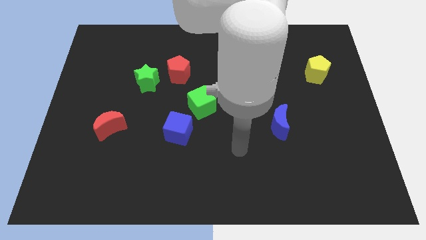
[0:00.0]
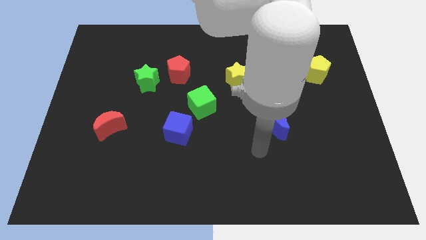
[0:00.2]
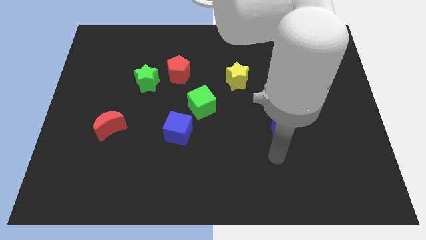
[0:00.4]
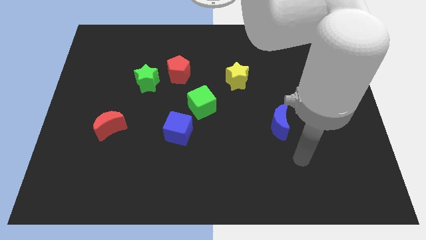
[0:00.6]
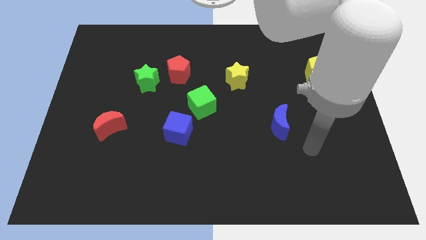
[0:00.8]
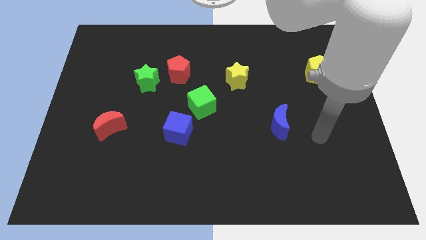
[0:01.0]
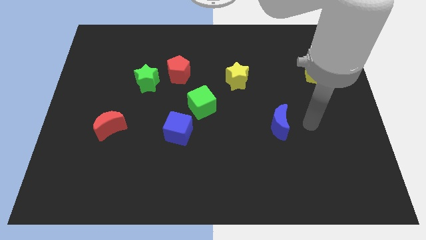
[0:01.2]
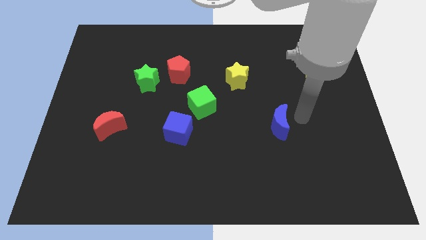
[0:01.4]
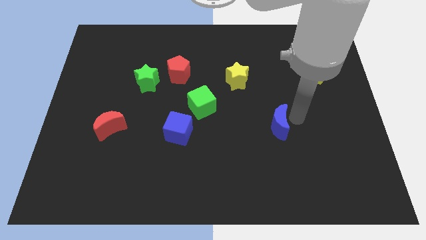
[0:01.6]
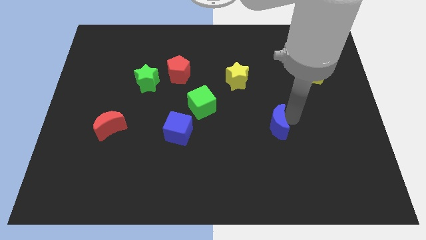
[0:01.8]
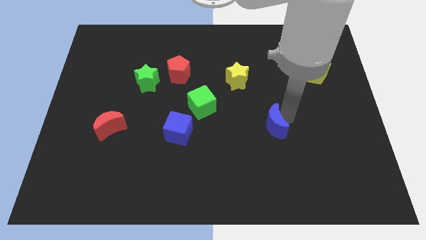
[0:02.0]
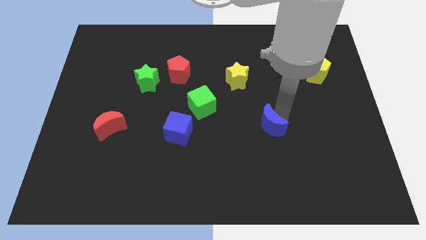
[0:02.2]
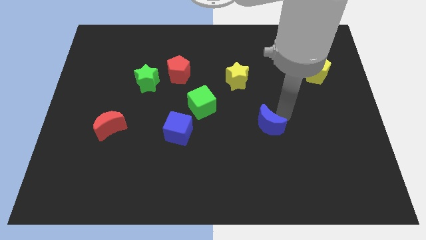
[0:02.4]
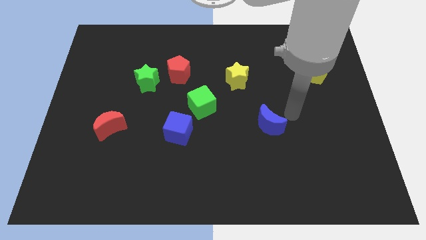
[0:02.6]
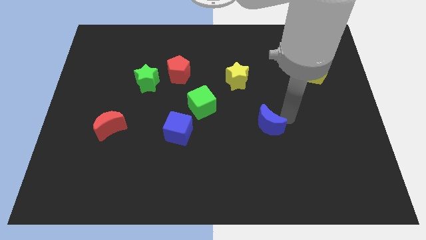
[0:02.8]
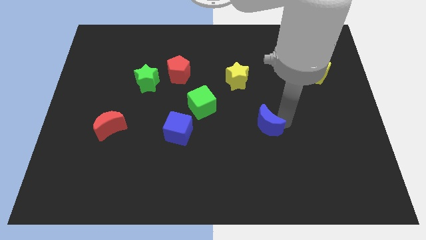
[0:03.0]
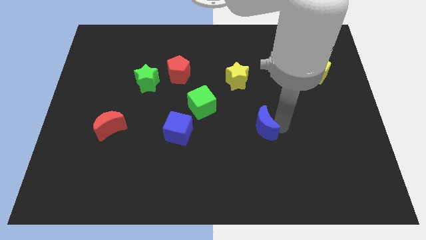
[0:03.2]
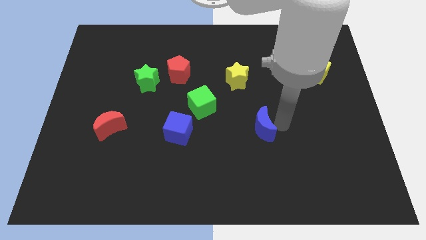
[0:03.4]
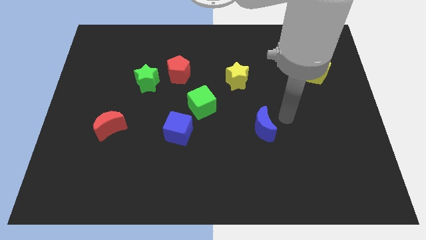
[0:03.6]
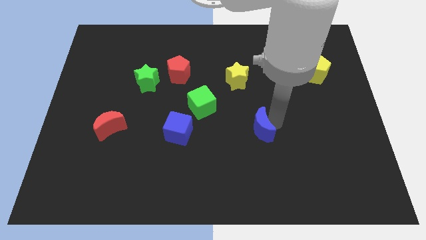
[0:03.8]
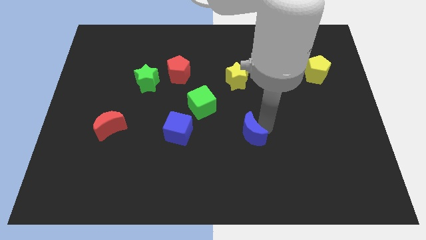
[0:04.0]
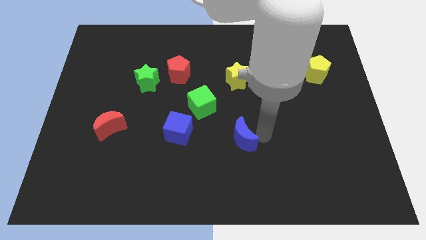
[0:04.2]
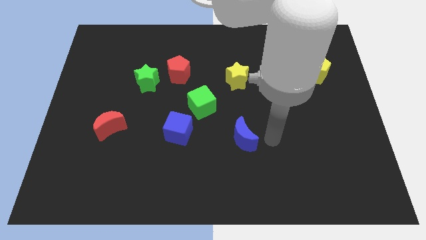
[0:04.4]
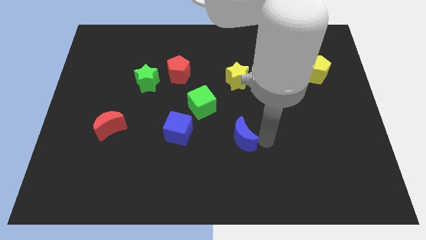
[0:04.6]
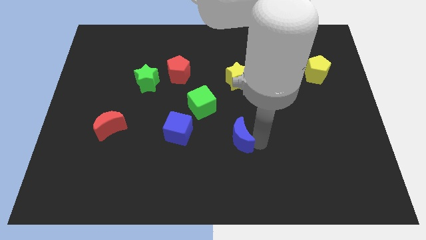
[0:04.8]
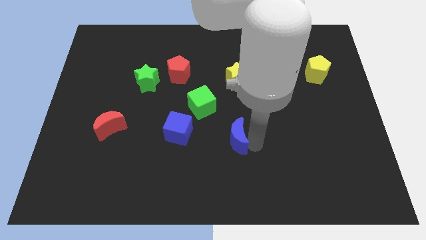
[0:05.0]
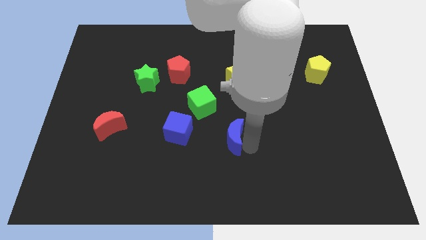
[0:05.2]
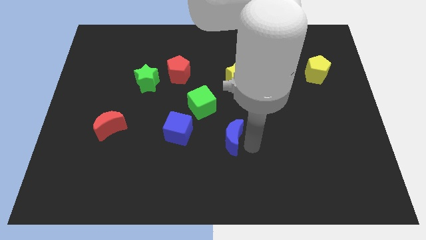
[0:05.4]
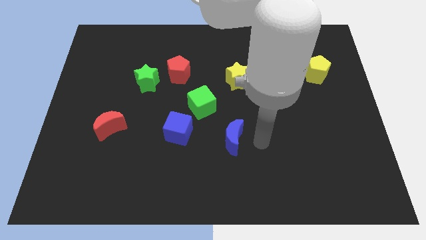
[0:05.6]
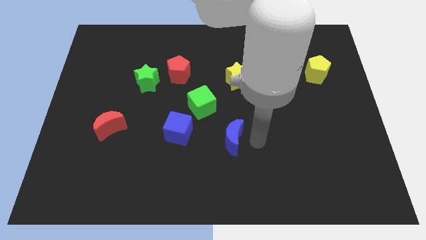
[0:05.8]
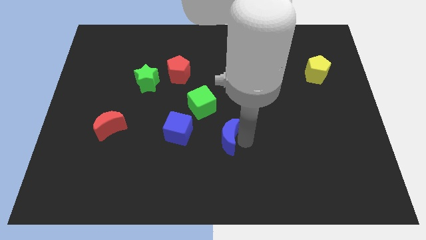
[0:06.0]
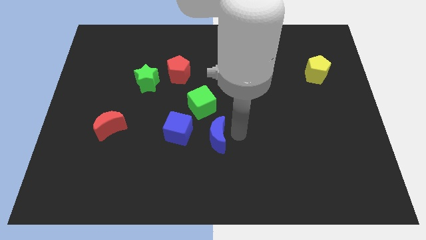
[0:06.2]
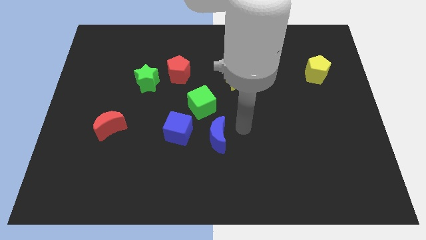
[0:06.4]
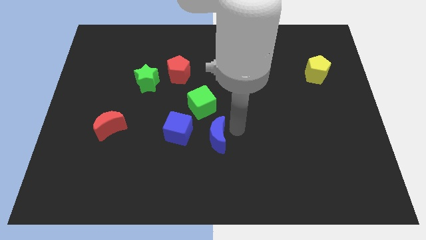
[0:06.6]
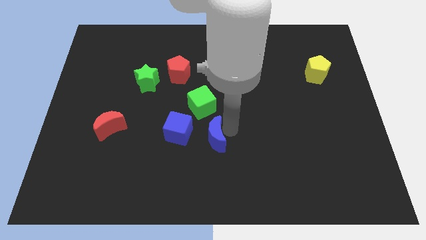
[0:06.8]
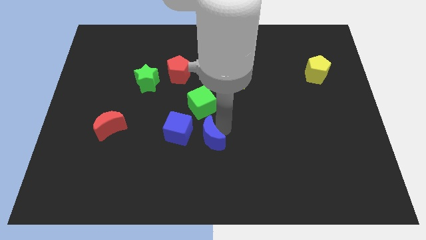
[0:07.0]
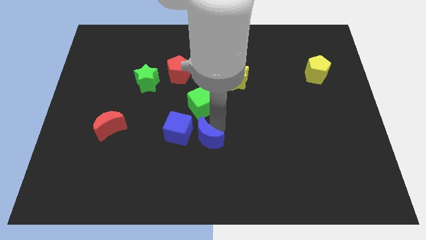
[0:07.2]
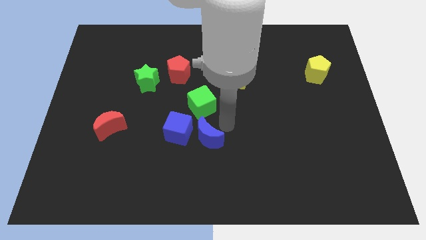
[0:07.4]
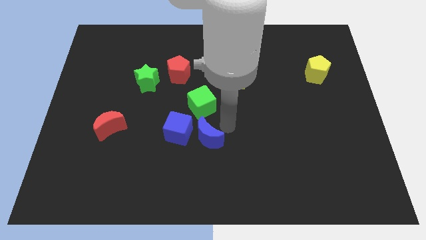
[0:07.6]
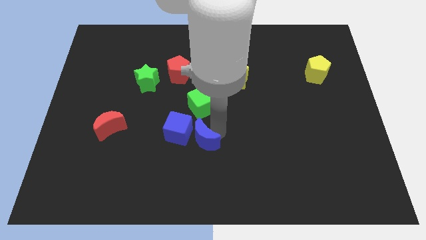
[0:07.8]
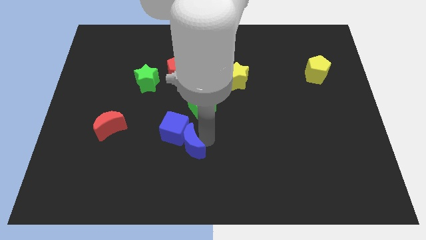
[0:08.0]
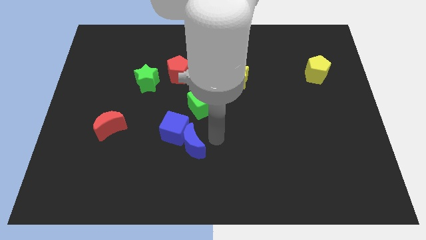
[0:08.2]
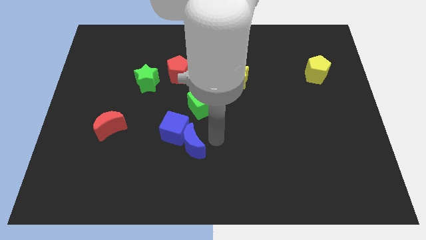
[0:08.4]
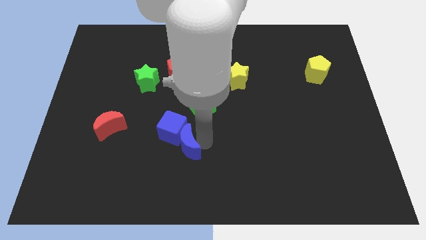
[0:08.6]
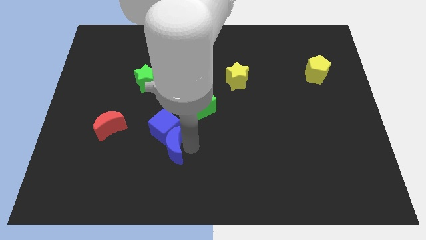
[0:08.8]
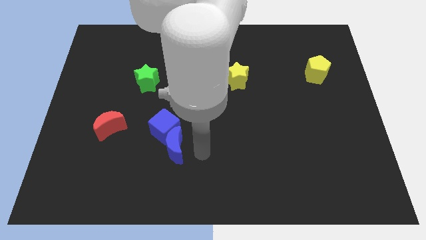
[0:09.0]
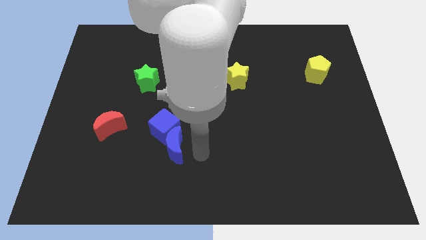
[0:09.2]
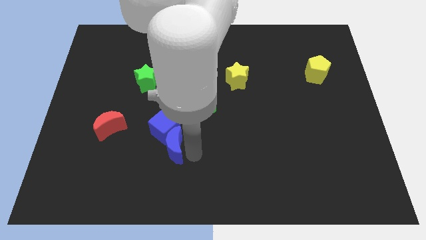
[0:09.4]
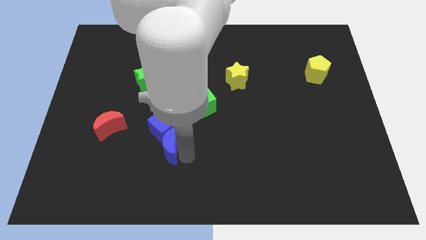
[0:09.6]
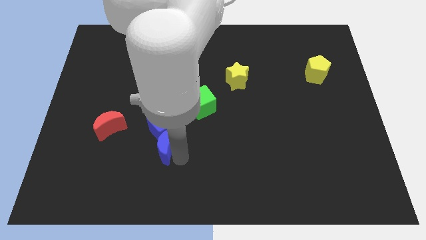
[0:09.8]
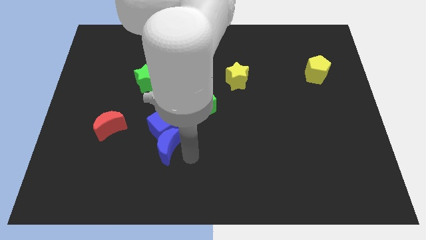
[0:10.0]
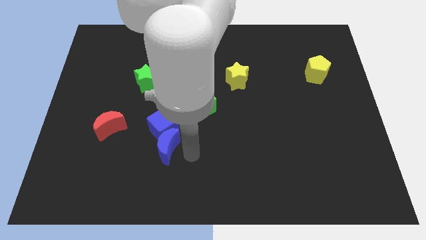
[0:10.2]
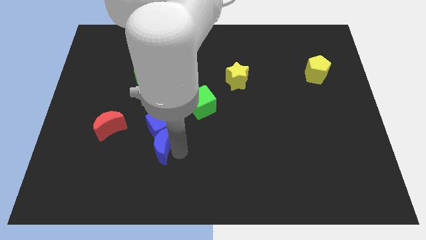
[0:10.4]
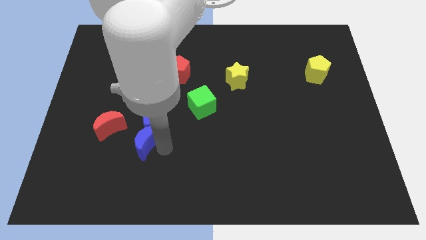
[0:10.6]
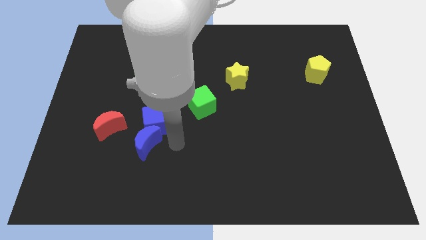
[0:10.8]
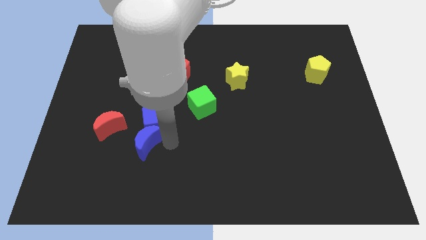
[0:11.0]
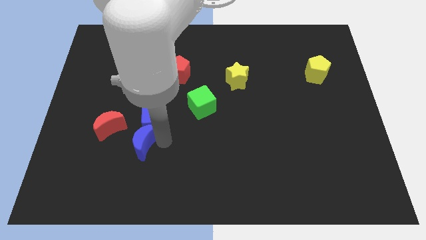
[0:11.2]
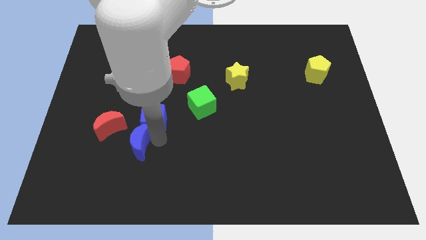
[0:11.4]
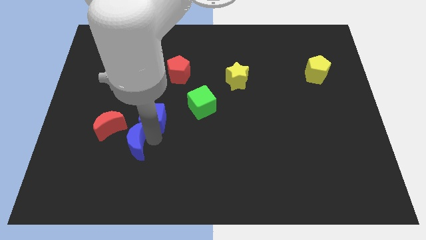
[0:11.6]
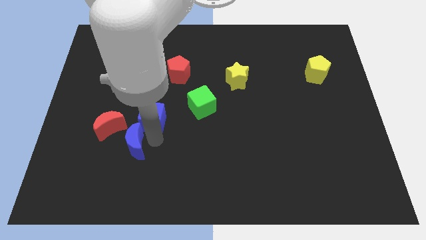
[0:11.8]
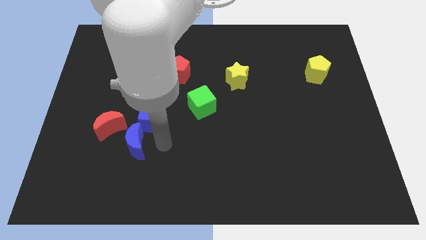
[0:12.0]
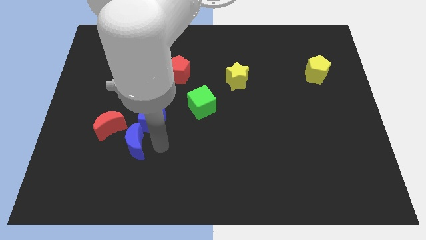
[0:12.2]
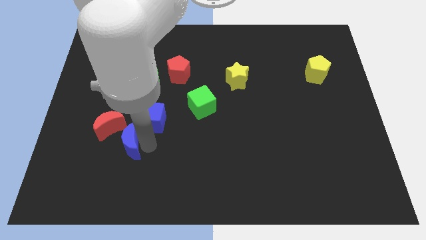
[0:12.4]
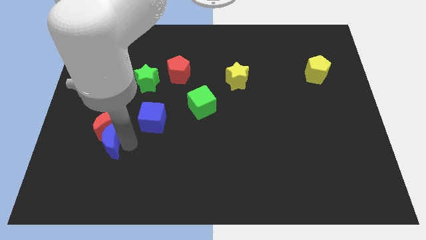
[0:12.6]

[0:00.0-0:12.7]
move the blue moon to the bottom left side of the red moon

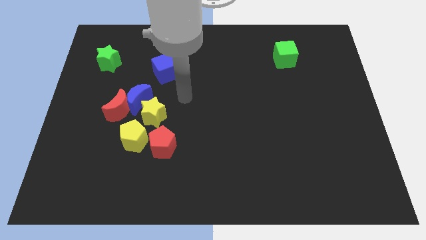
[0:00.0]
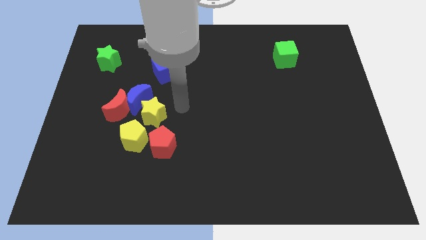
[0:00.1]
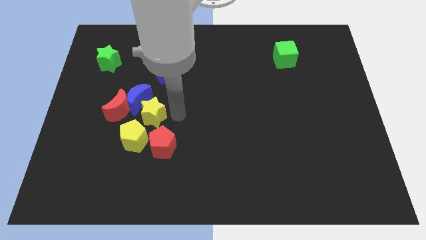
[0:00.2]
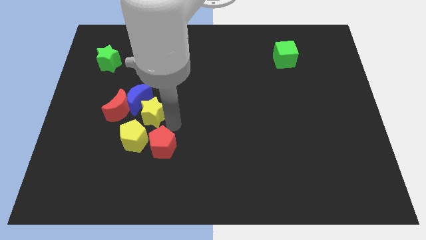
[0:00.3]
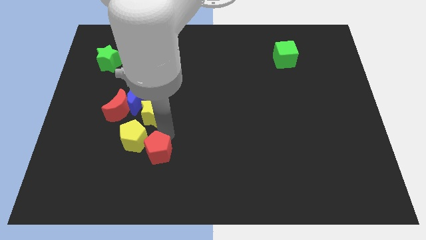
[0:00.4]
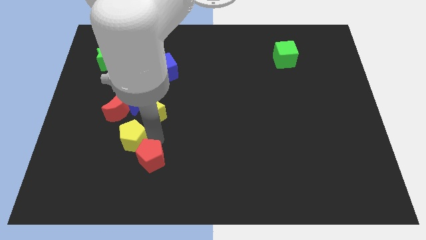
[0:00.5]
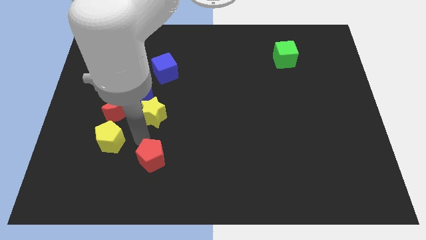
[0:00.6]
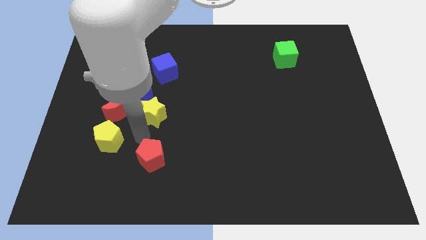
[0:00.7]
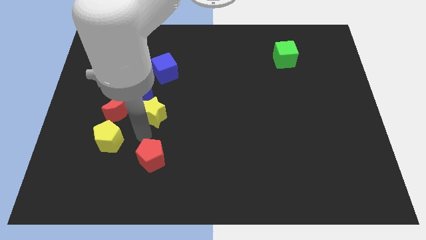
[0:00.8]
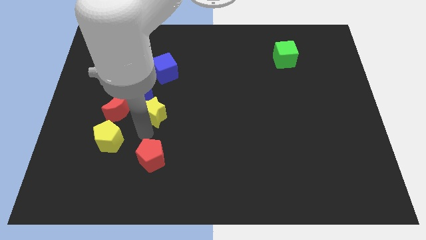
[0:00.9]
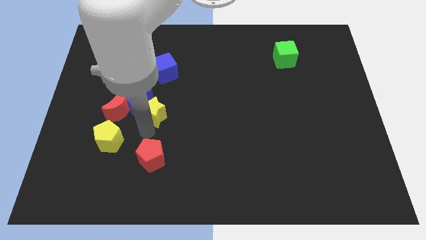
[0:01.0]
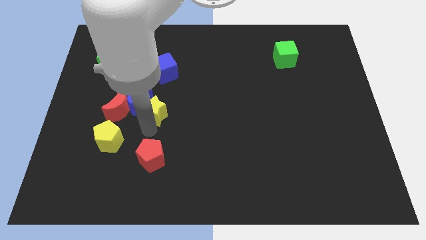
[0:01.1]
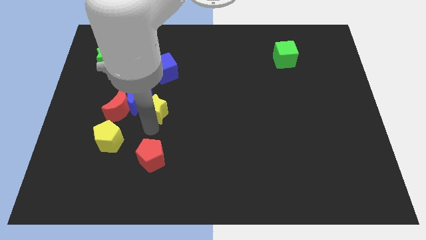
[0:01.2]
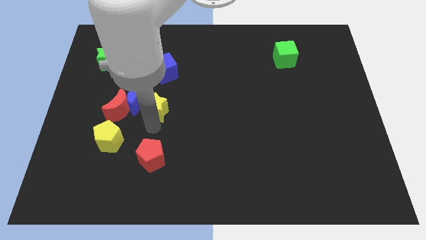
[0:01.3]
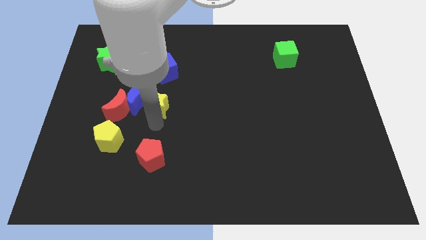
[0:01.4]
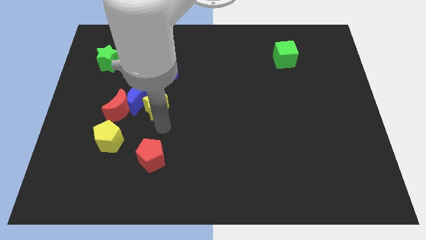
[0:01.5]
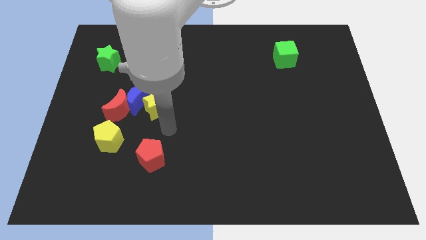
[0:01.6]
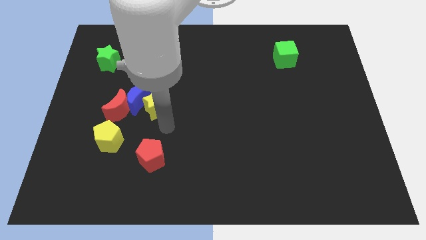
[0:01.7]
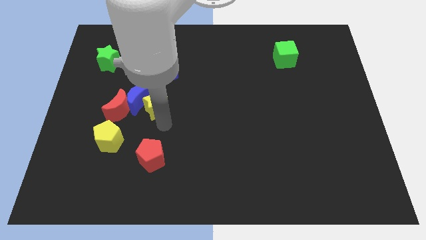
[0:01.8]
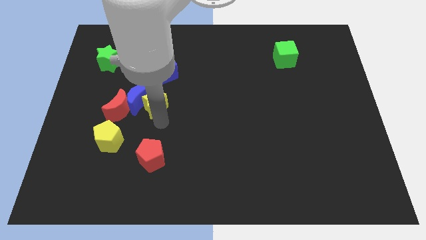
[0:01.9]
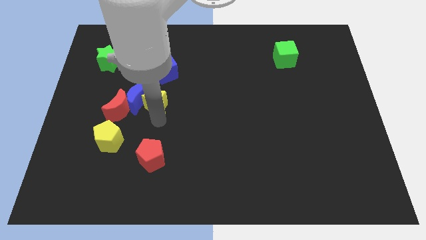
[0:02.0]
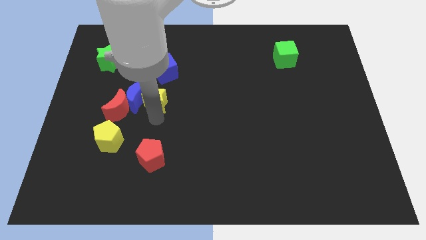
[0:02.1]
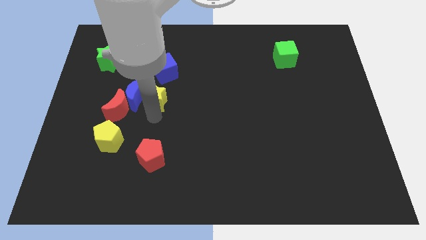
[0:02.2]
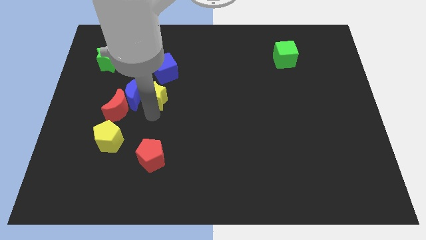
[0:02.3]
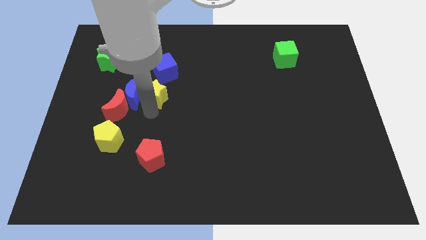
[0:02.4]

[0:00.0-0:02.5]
push the yellow star diagonally down and to the left of the blue cube

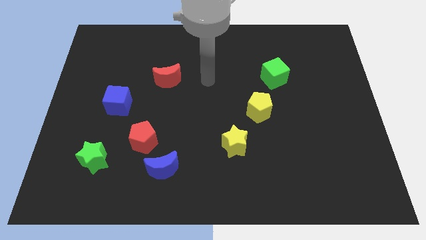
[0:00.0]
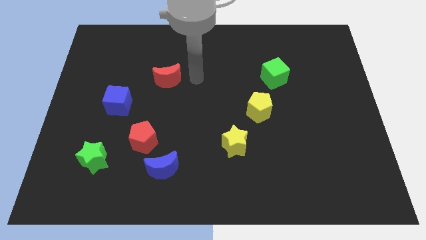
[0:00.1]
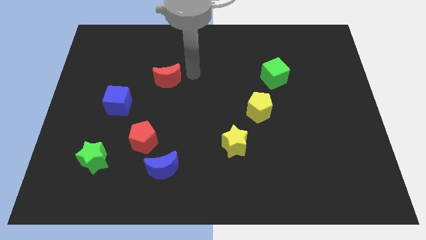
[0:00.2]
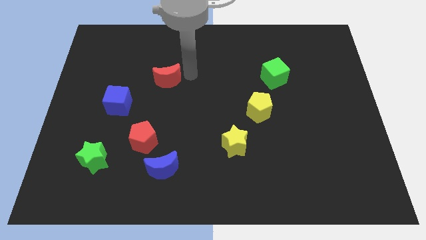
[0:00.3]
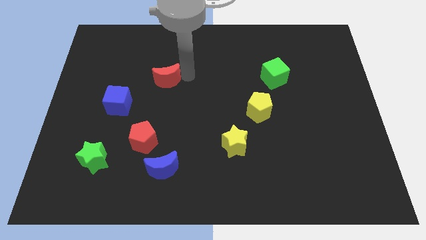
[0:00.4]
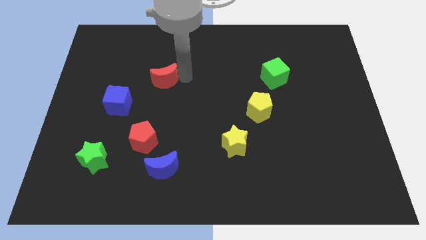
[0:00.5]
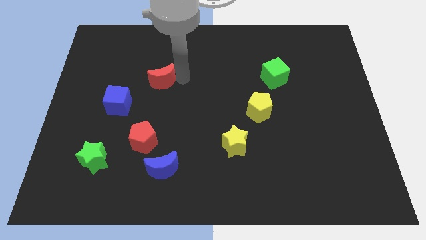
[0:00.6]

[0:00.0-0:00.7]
slide the red moon diagonally up and to the right of the blue cube
